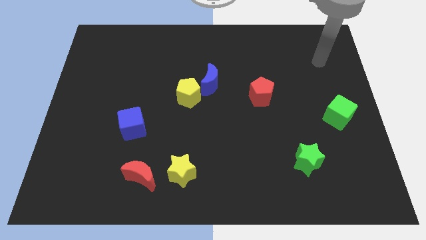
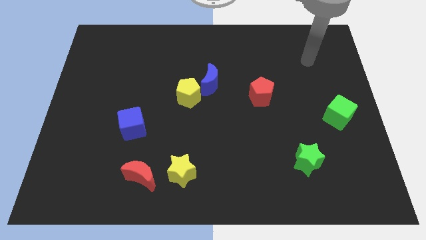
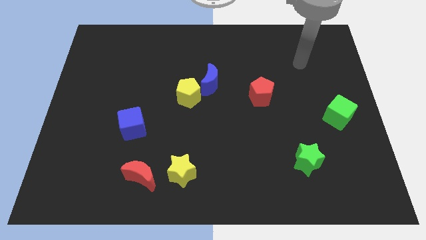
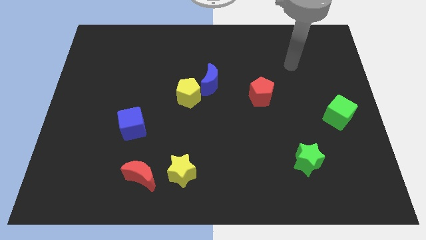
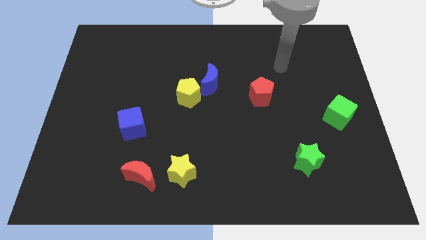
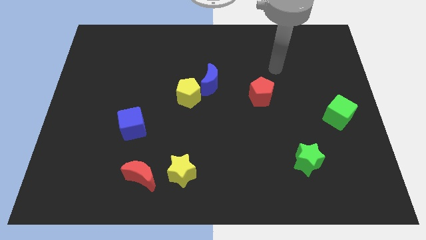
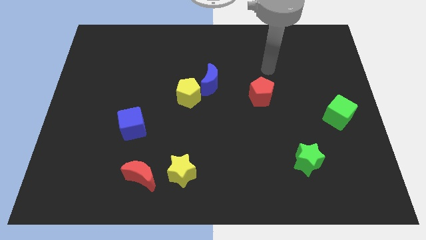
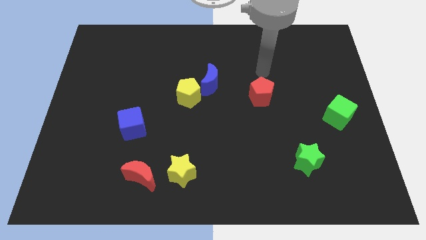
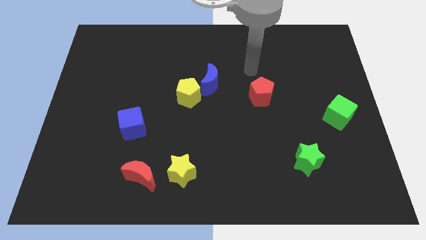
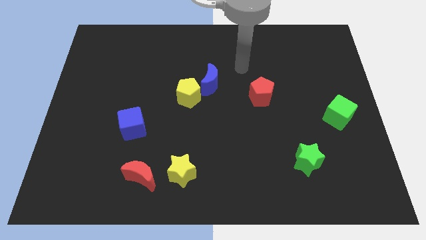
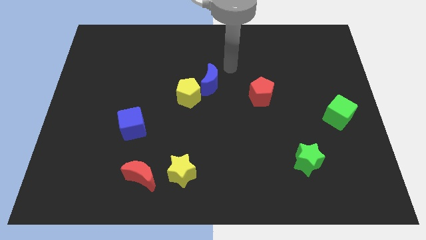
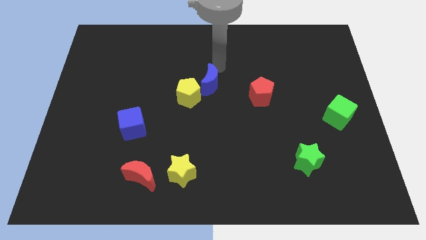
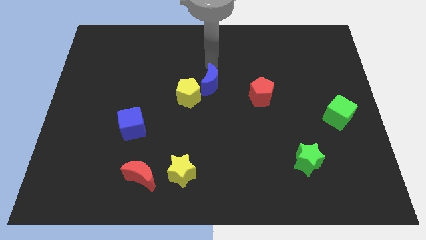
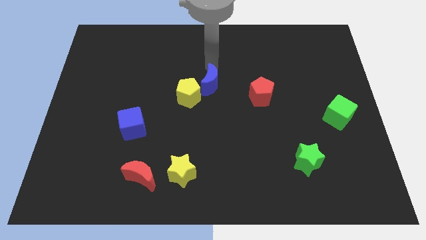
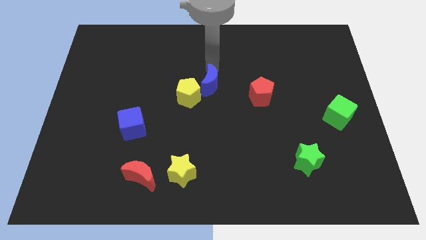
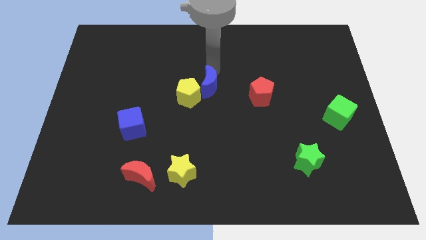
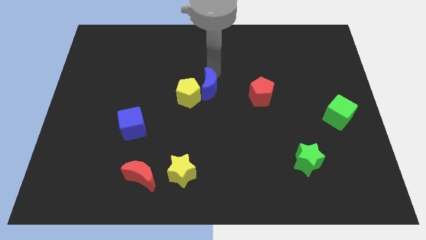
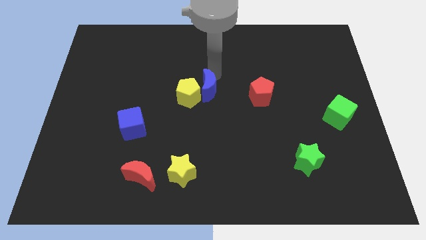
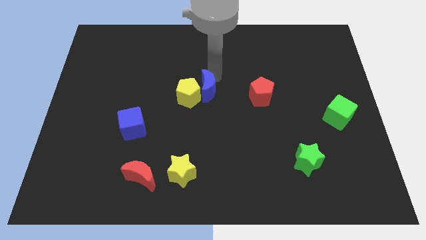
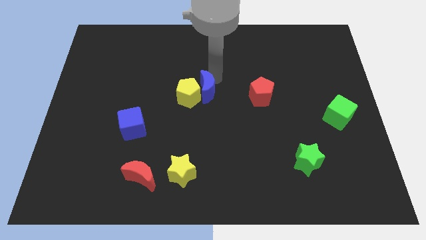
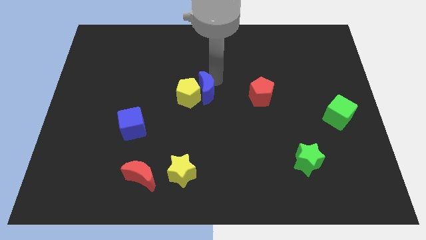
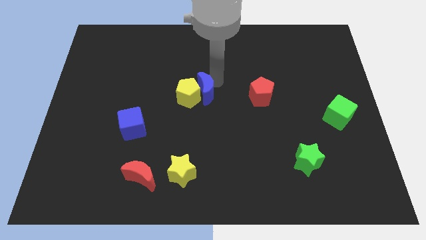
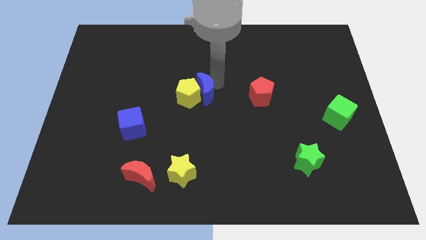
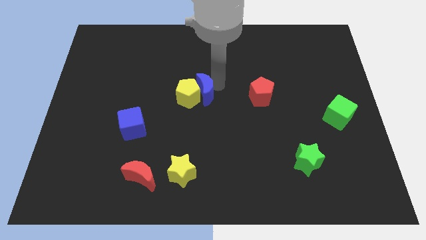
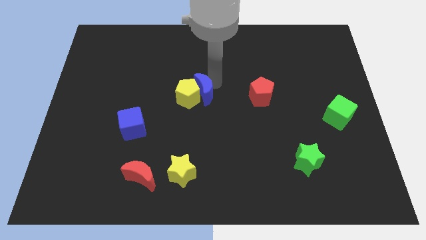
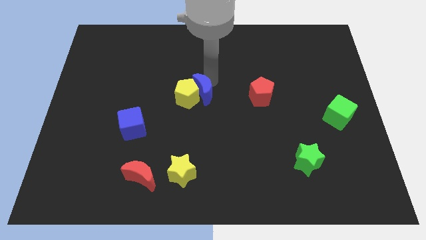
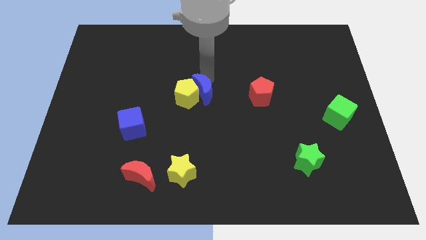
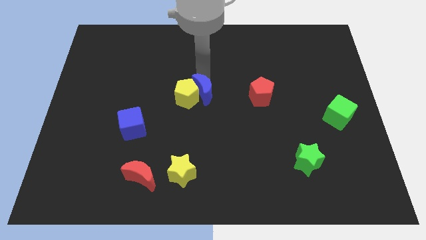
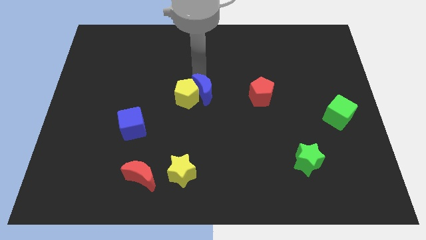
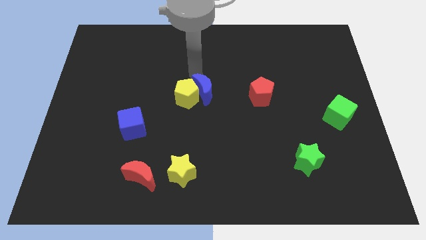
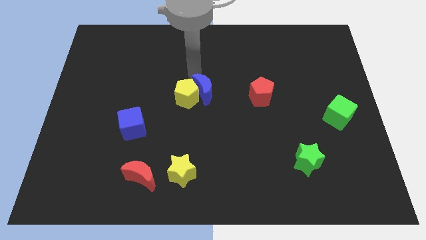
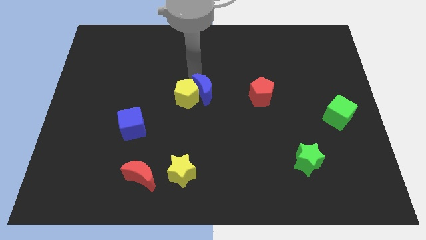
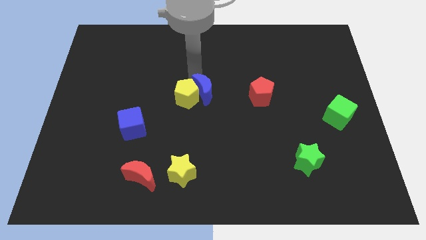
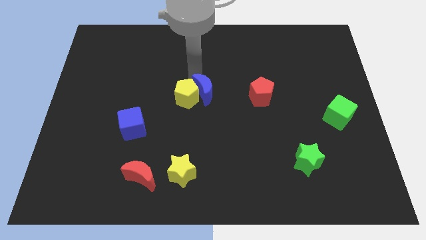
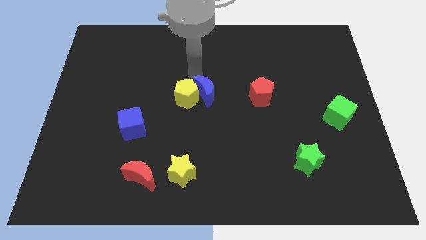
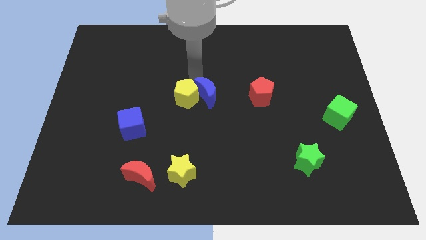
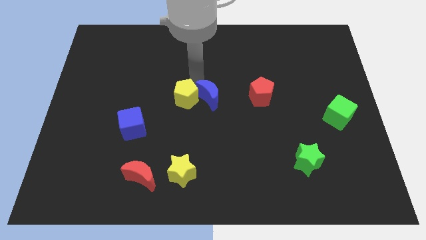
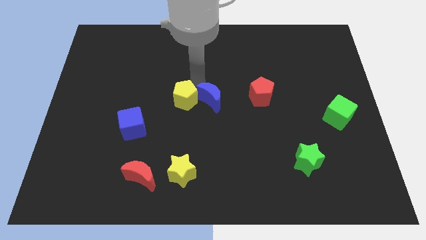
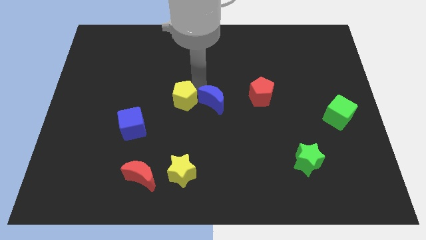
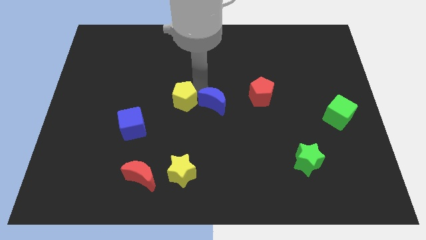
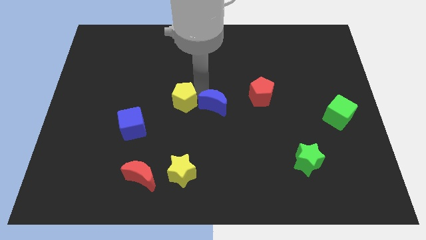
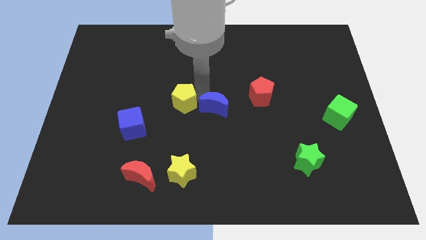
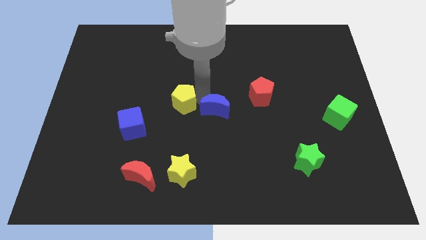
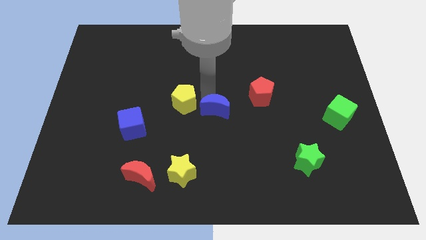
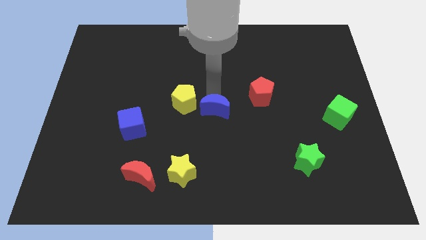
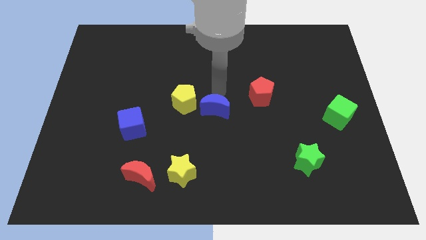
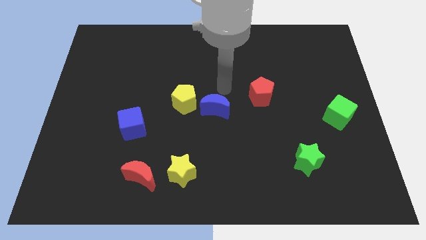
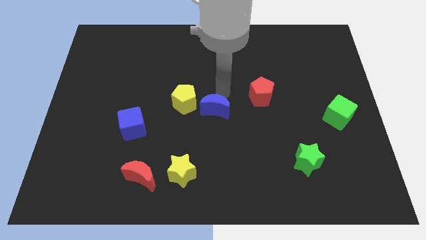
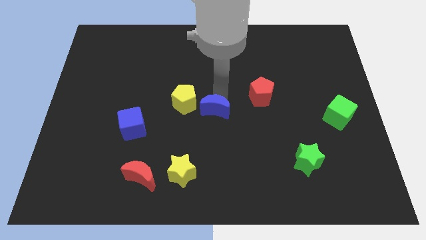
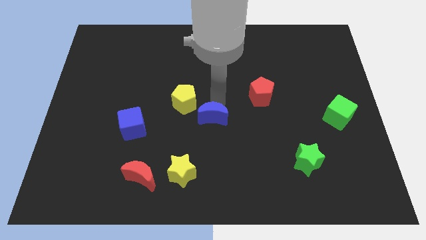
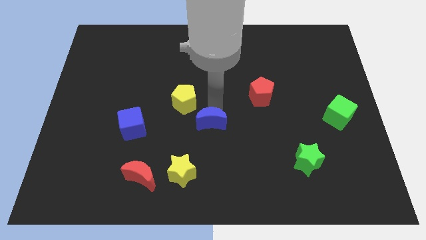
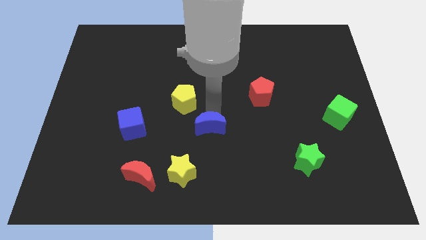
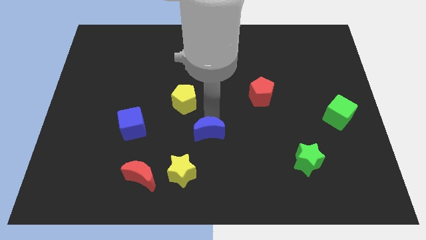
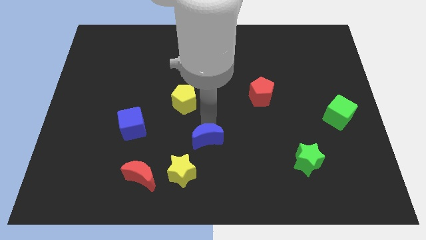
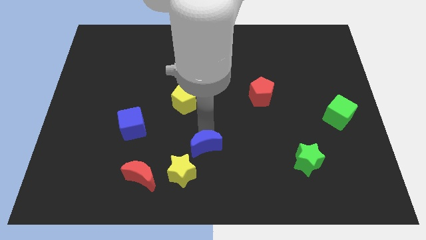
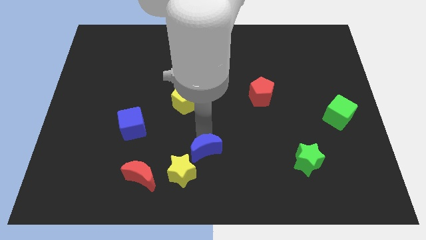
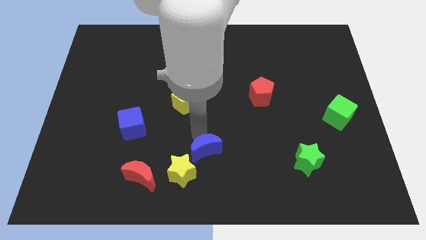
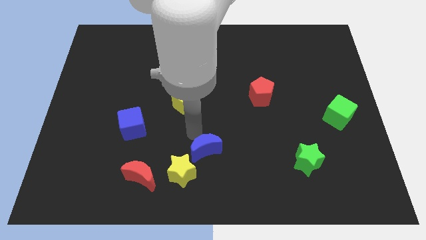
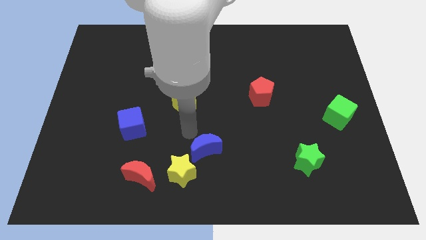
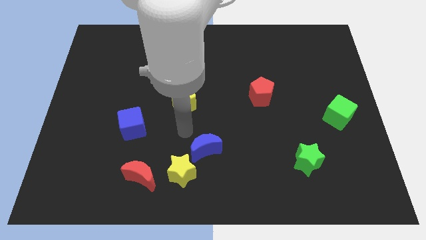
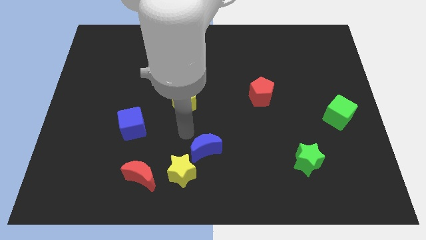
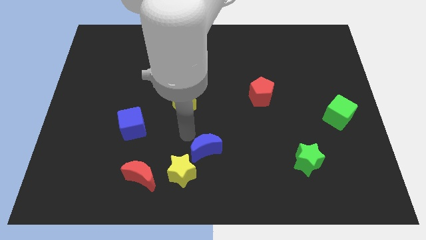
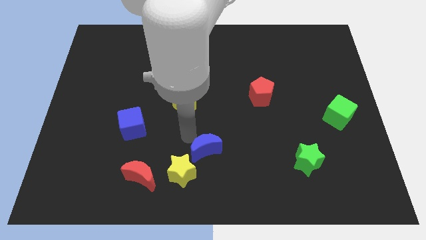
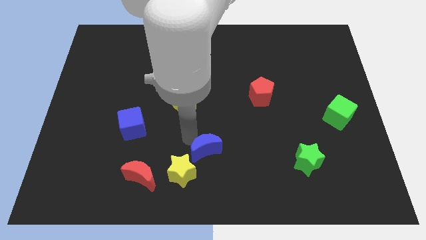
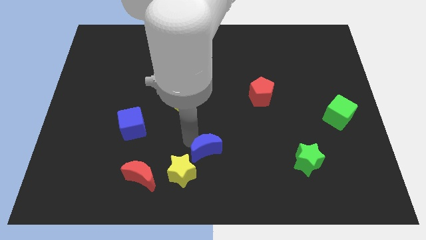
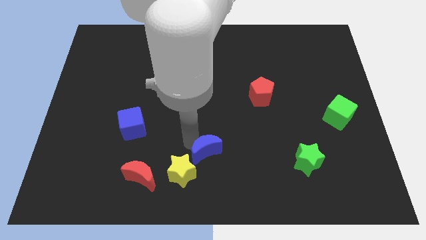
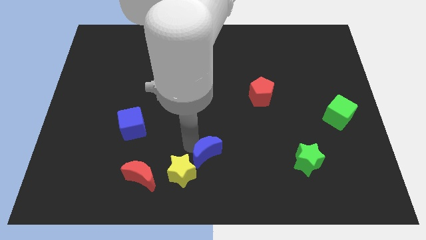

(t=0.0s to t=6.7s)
slide the blue moon to the bottom

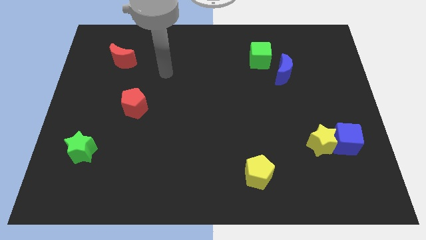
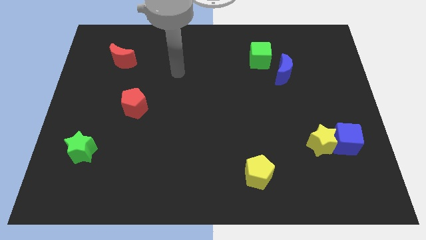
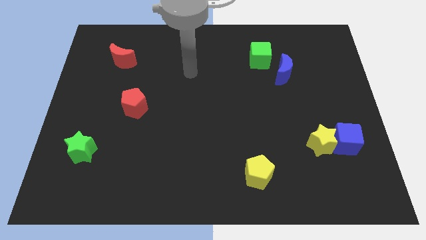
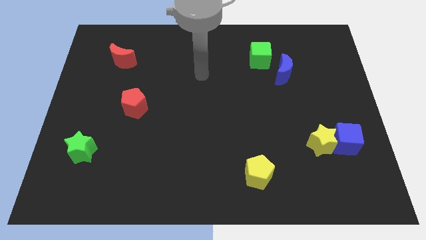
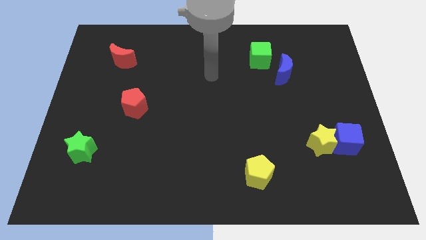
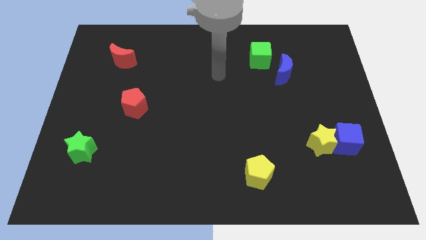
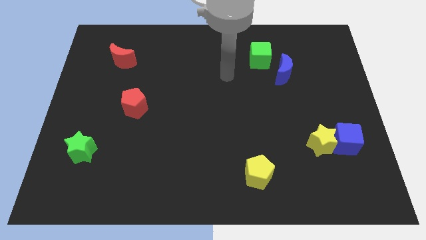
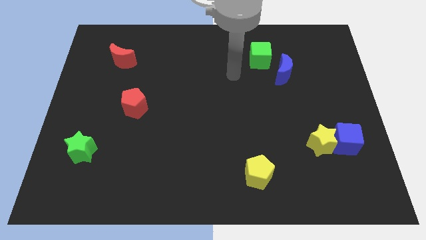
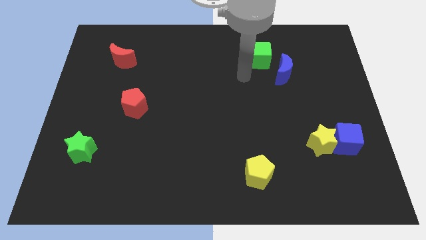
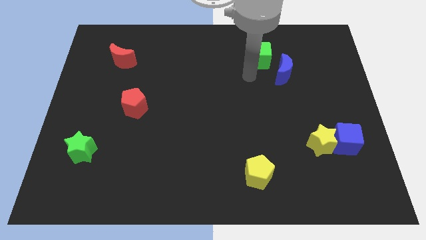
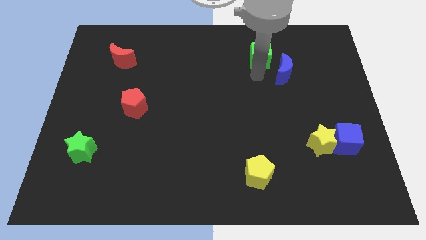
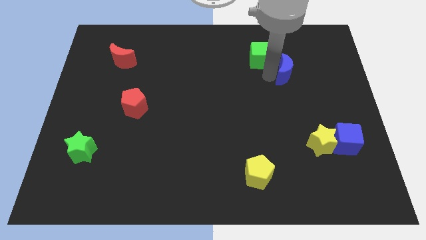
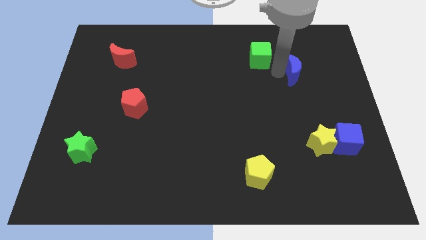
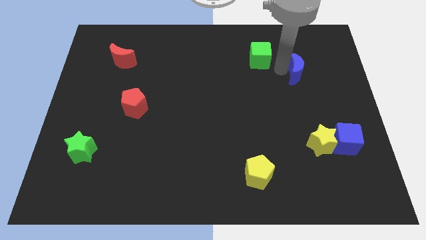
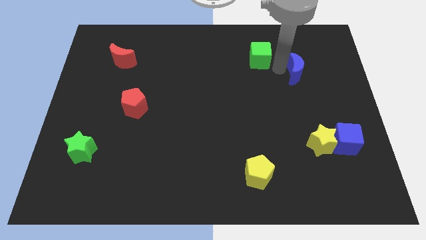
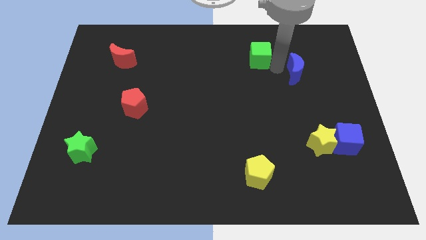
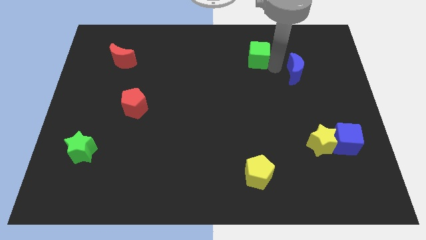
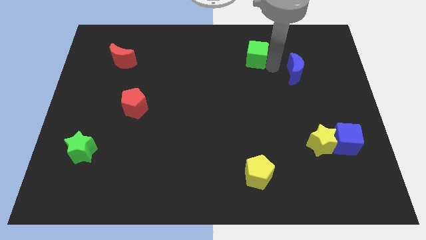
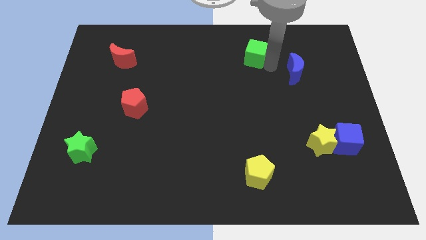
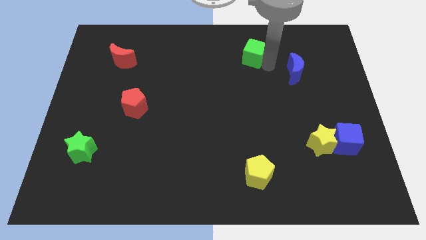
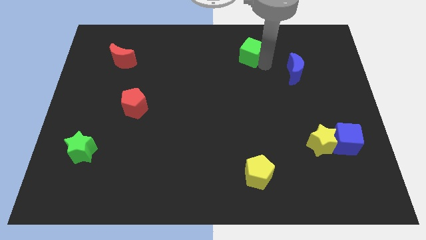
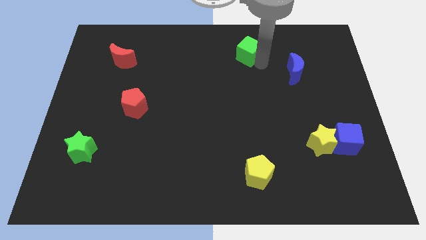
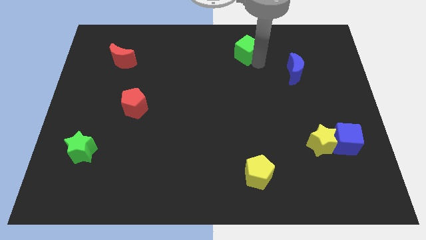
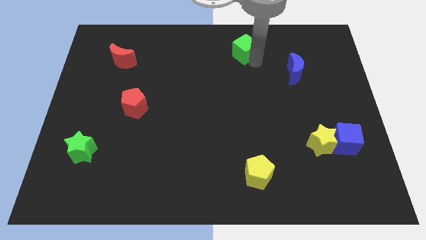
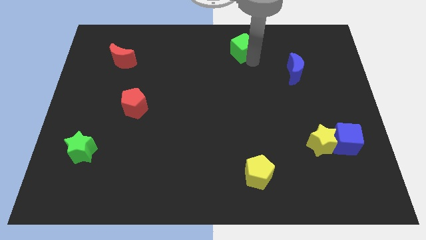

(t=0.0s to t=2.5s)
put the green cube to the top side
